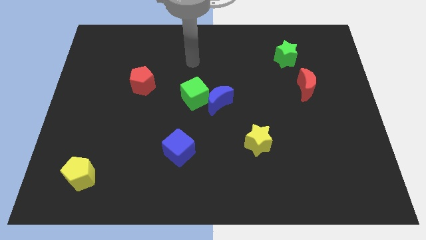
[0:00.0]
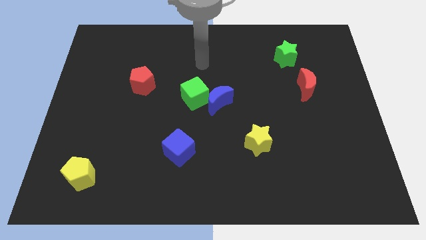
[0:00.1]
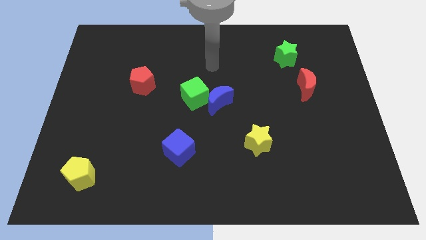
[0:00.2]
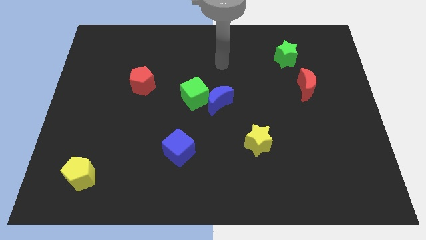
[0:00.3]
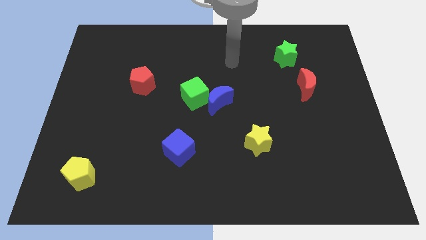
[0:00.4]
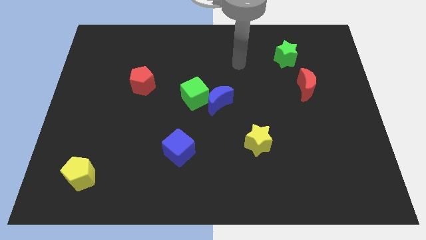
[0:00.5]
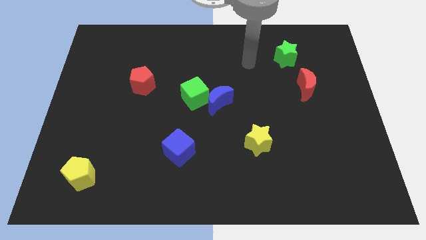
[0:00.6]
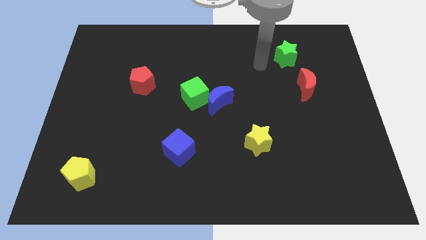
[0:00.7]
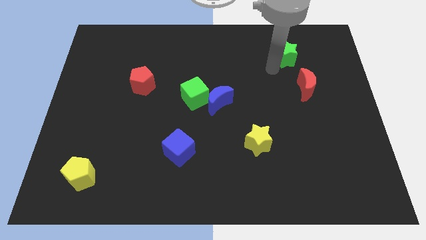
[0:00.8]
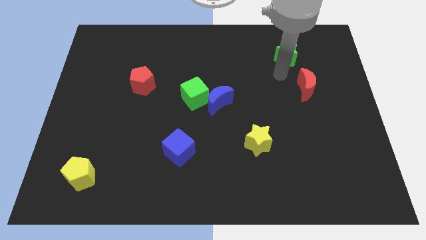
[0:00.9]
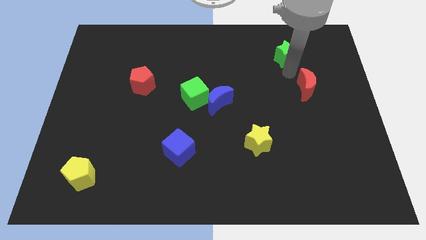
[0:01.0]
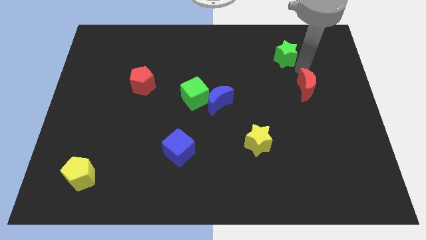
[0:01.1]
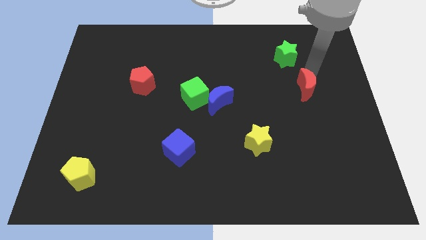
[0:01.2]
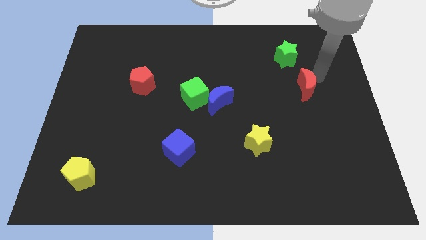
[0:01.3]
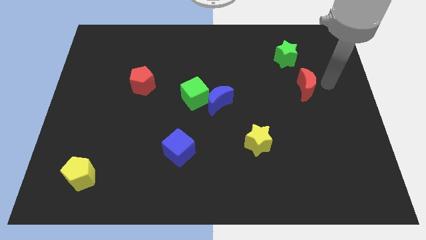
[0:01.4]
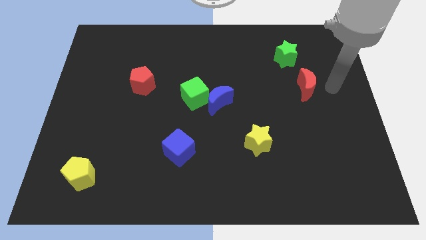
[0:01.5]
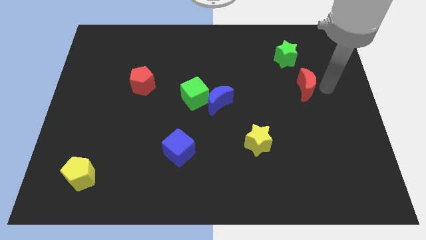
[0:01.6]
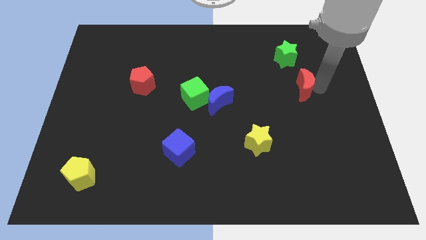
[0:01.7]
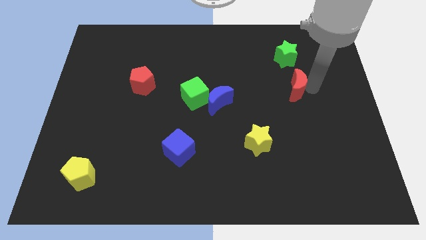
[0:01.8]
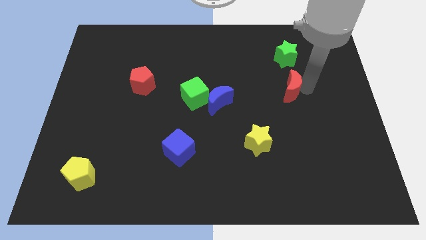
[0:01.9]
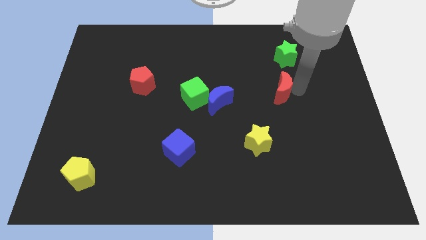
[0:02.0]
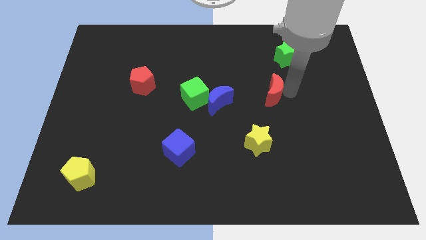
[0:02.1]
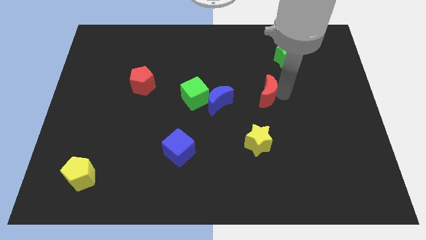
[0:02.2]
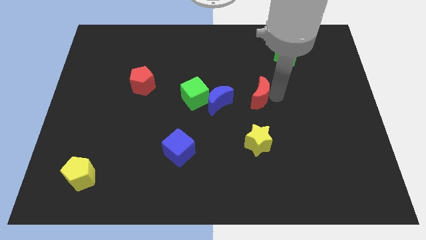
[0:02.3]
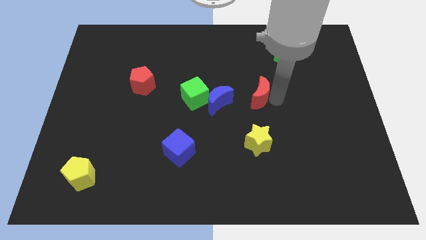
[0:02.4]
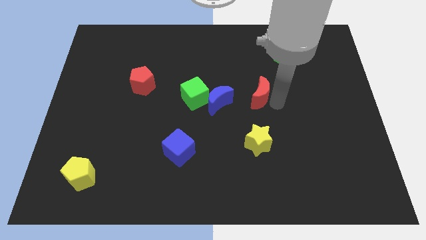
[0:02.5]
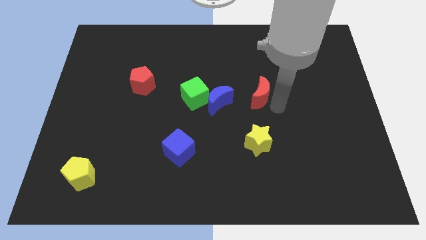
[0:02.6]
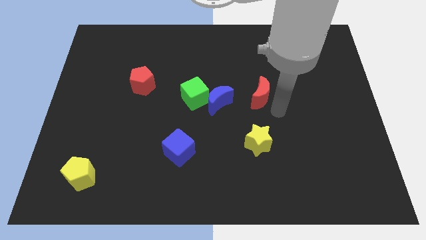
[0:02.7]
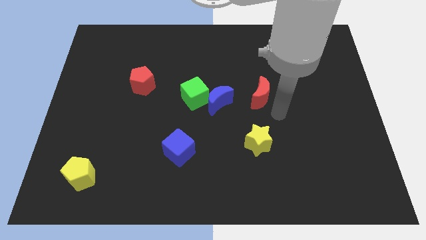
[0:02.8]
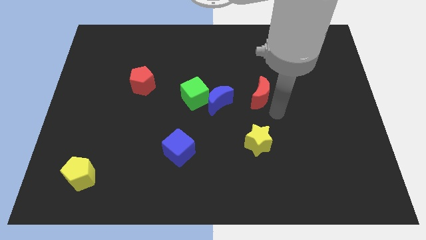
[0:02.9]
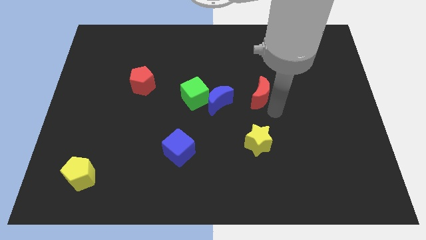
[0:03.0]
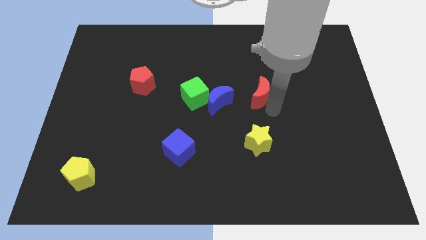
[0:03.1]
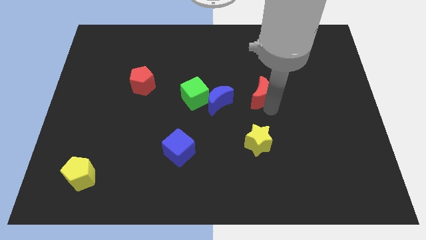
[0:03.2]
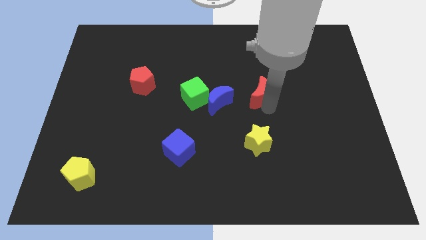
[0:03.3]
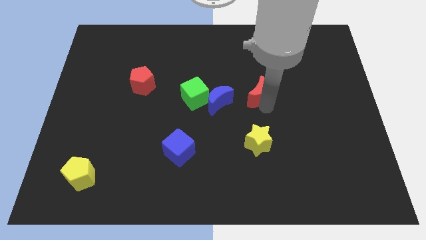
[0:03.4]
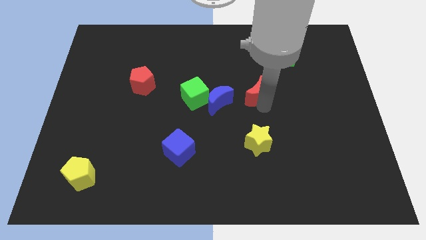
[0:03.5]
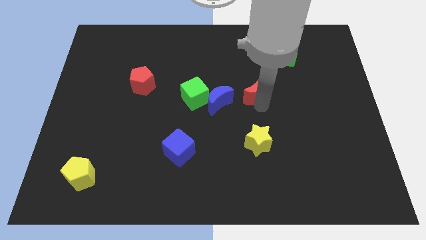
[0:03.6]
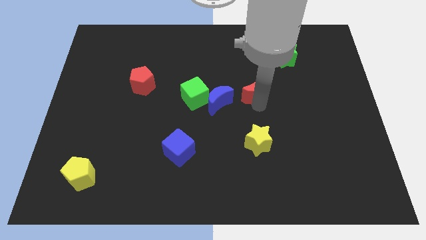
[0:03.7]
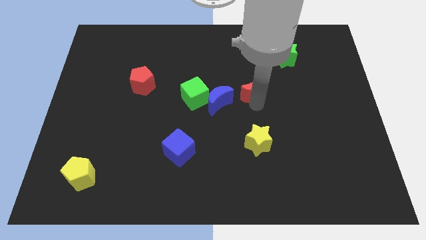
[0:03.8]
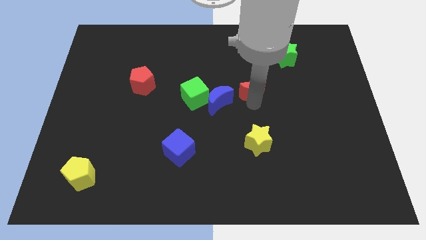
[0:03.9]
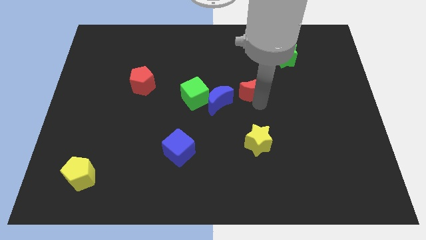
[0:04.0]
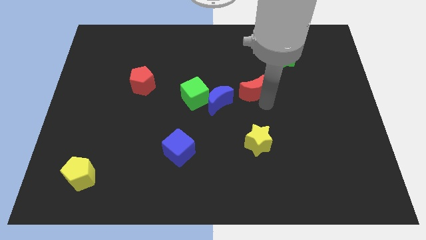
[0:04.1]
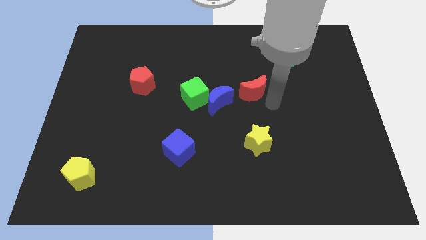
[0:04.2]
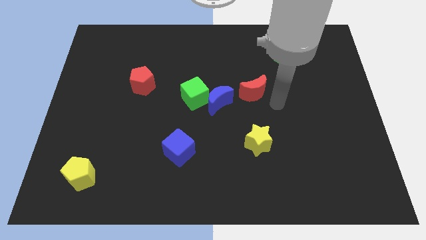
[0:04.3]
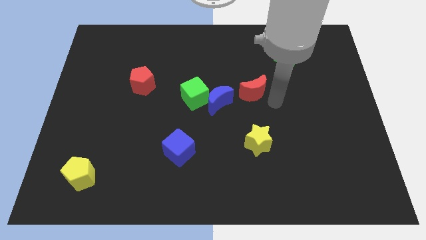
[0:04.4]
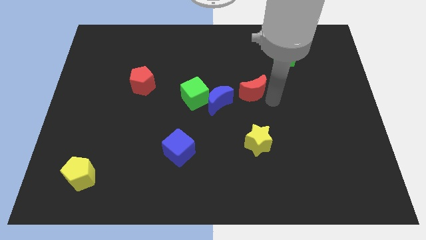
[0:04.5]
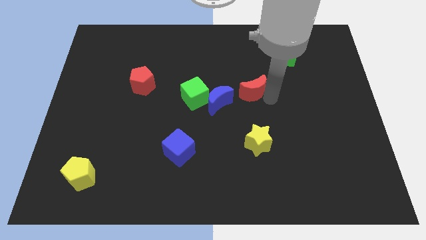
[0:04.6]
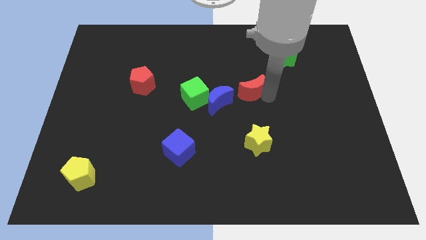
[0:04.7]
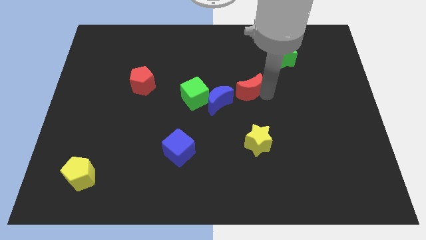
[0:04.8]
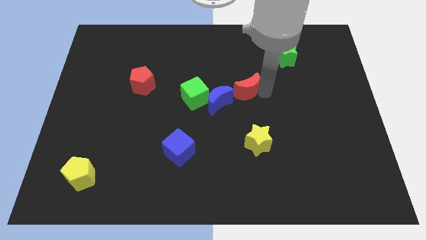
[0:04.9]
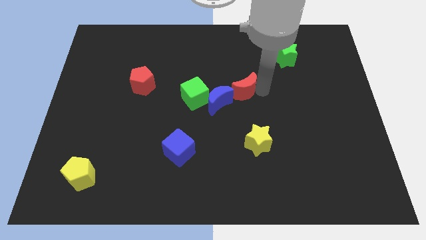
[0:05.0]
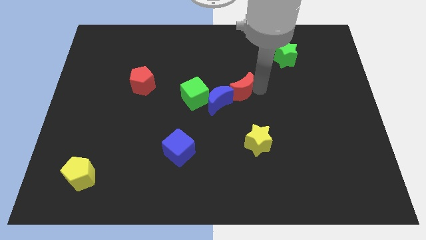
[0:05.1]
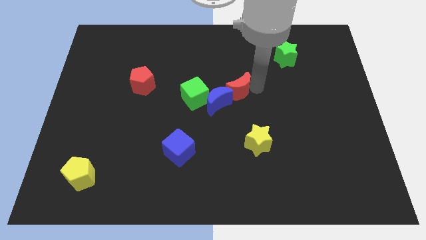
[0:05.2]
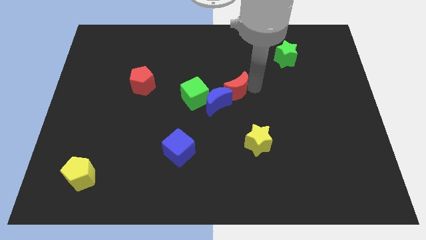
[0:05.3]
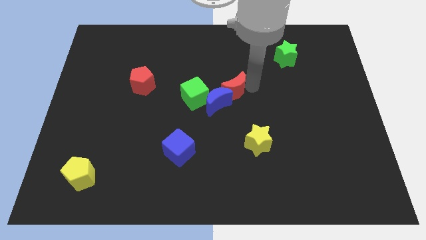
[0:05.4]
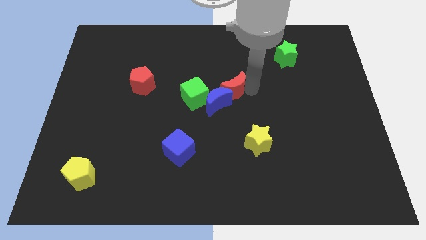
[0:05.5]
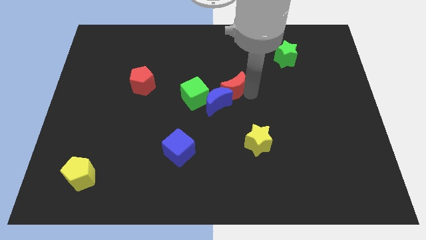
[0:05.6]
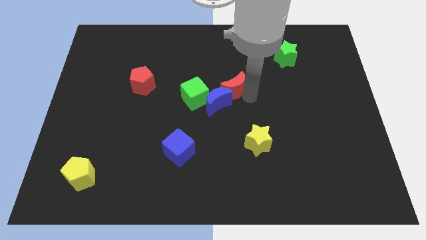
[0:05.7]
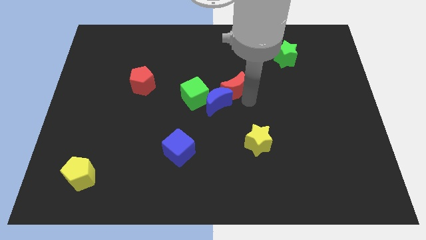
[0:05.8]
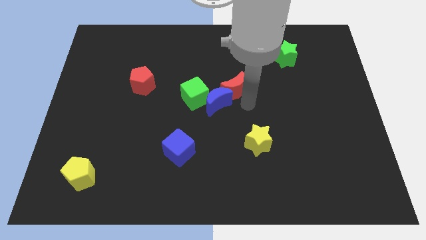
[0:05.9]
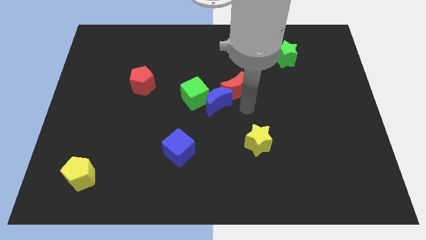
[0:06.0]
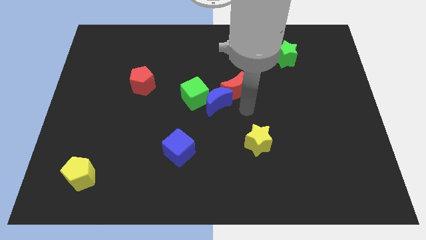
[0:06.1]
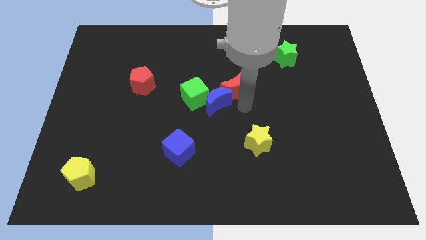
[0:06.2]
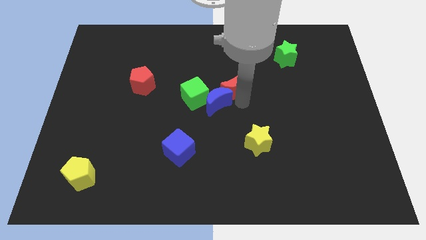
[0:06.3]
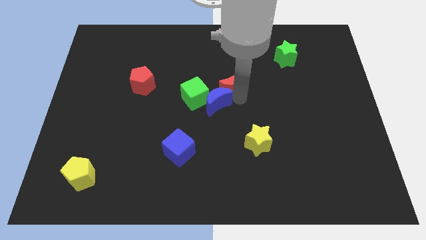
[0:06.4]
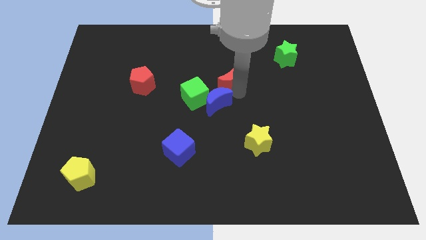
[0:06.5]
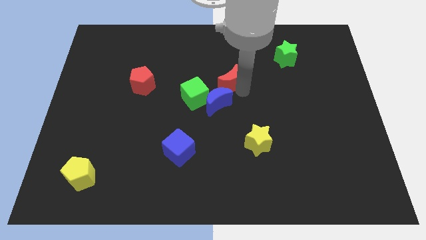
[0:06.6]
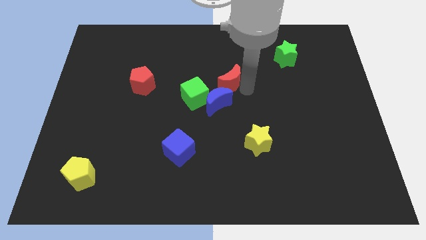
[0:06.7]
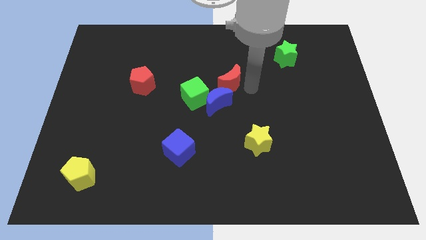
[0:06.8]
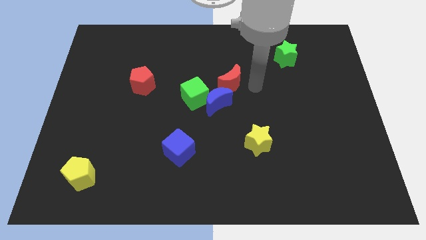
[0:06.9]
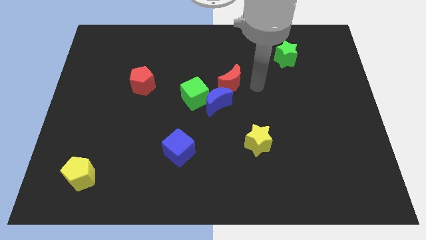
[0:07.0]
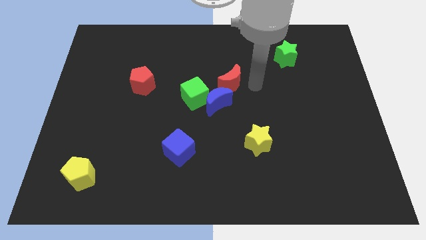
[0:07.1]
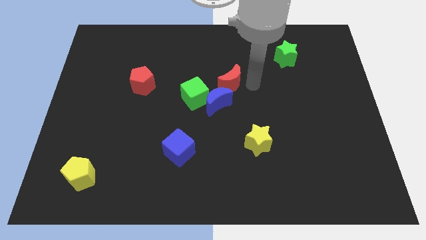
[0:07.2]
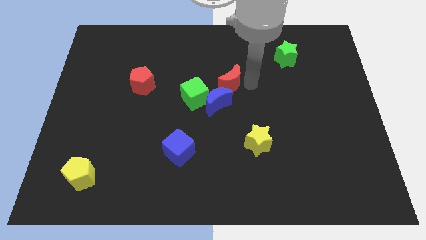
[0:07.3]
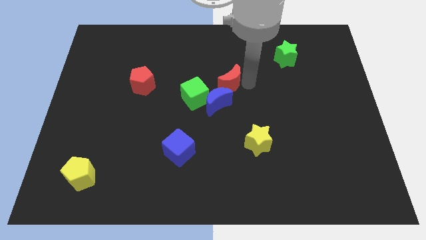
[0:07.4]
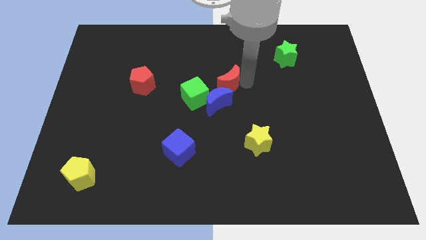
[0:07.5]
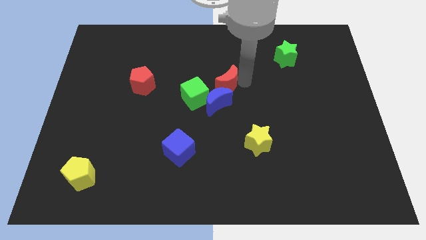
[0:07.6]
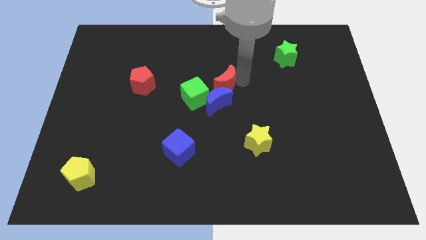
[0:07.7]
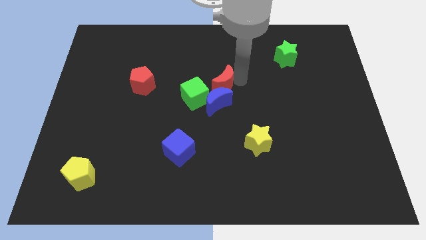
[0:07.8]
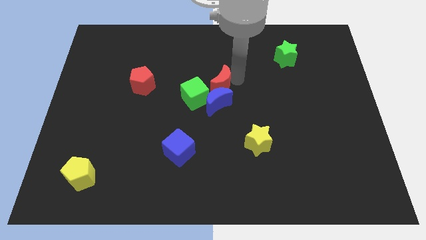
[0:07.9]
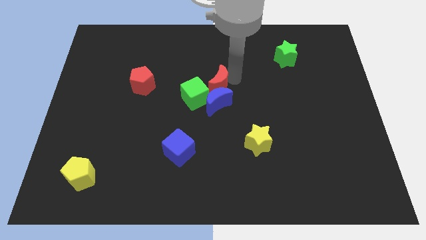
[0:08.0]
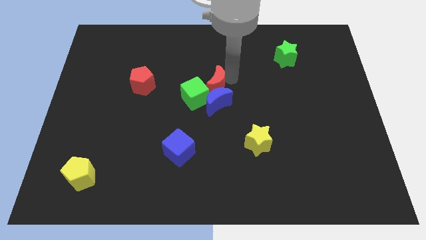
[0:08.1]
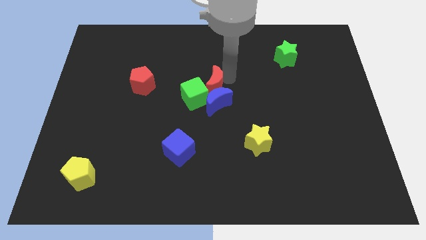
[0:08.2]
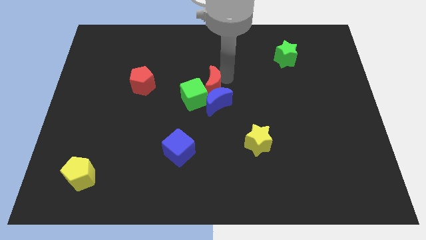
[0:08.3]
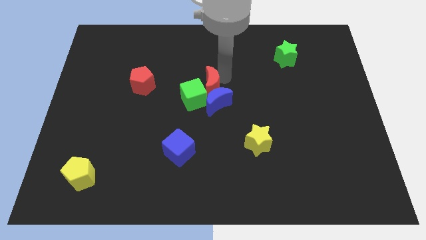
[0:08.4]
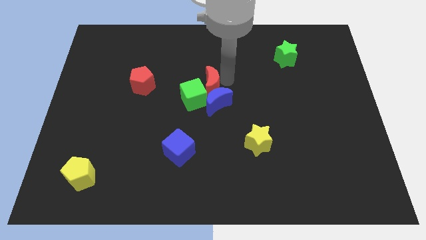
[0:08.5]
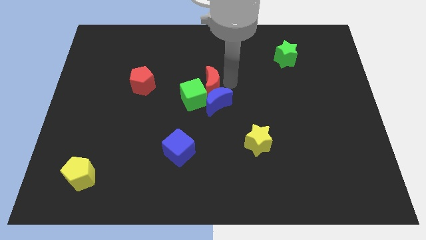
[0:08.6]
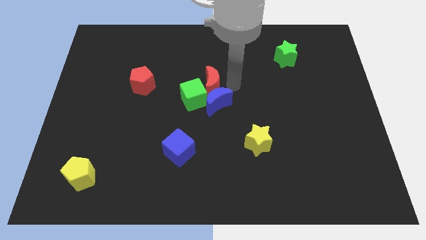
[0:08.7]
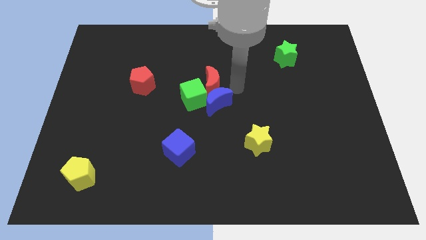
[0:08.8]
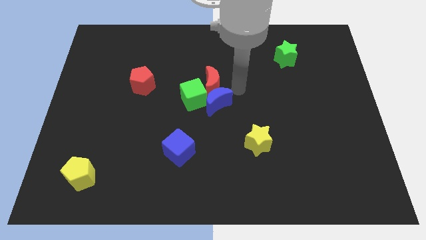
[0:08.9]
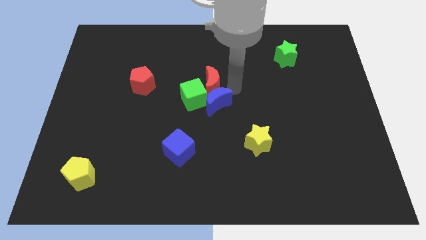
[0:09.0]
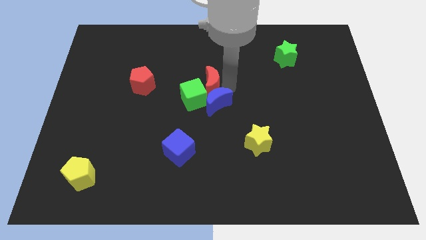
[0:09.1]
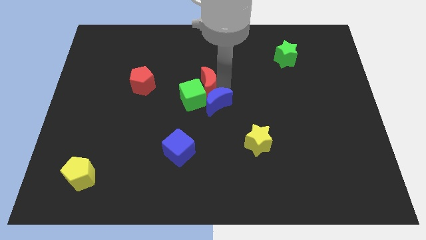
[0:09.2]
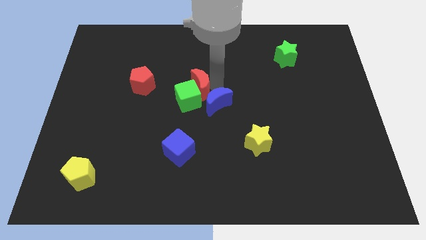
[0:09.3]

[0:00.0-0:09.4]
put the red moon to the right of the red pentagon
